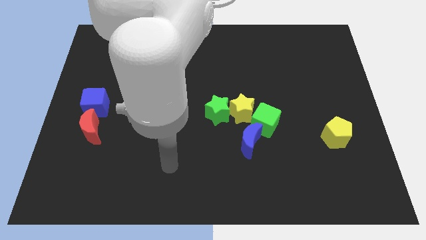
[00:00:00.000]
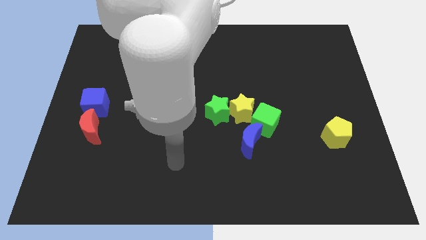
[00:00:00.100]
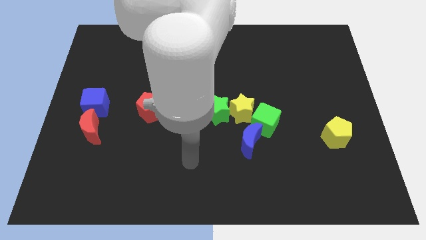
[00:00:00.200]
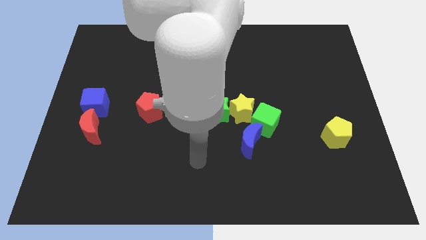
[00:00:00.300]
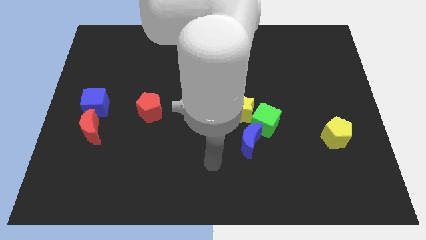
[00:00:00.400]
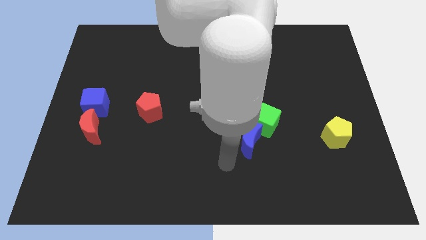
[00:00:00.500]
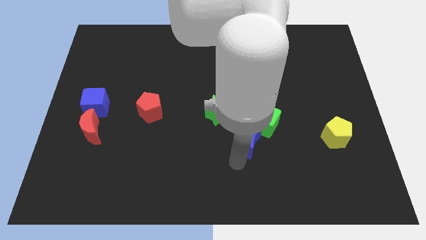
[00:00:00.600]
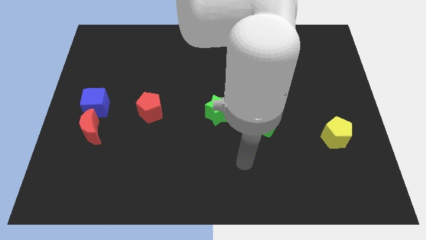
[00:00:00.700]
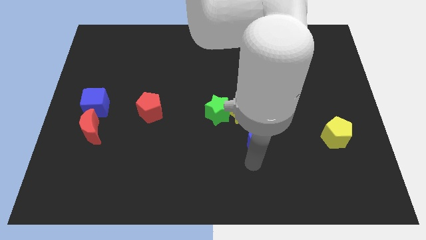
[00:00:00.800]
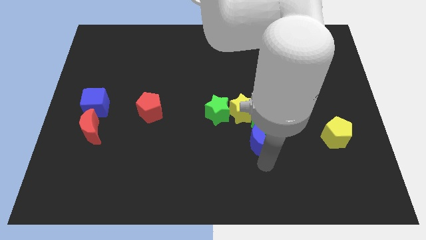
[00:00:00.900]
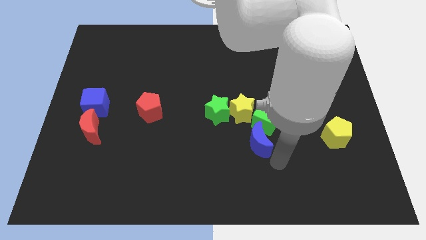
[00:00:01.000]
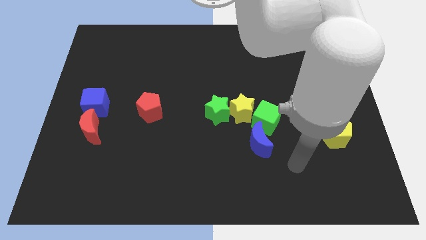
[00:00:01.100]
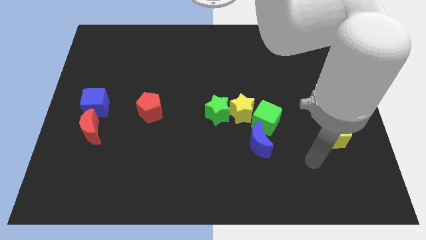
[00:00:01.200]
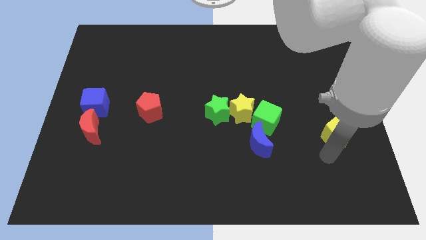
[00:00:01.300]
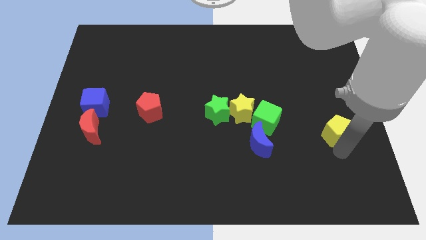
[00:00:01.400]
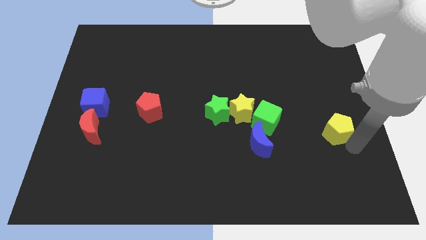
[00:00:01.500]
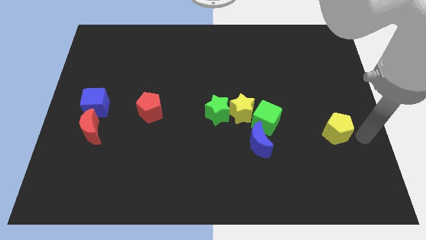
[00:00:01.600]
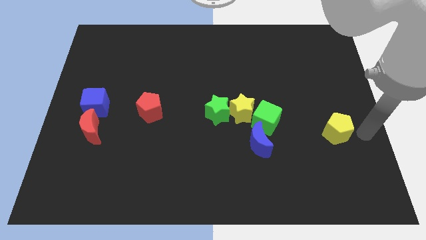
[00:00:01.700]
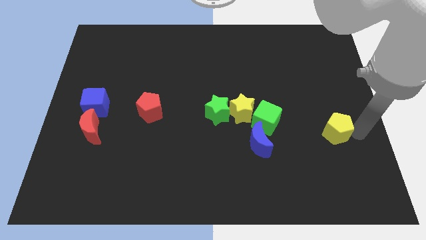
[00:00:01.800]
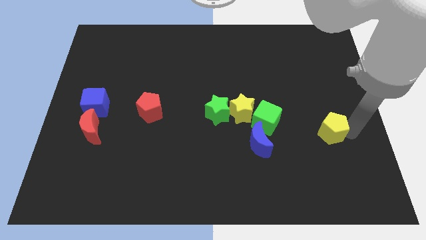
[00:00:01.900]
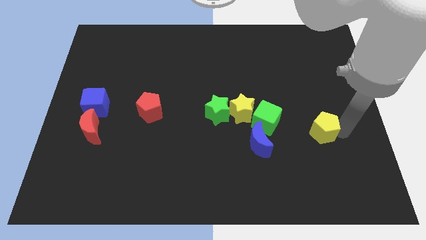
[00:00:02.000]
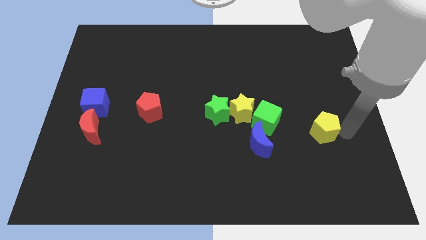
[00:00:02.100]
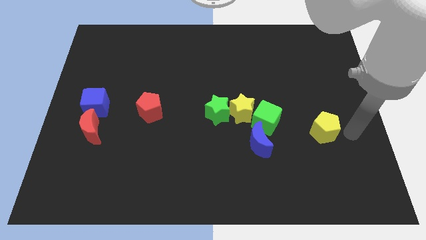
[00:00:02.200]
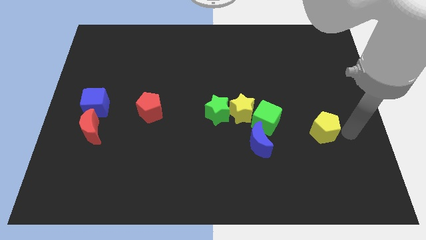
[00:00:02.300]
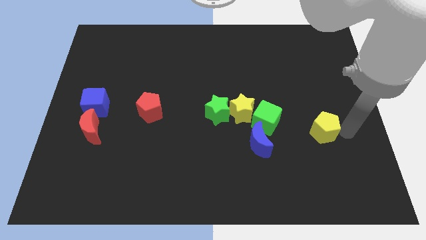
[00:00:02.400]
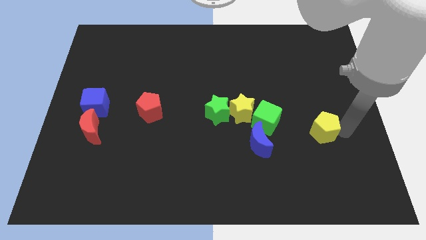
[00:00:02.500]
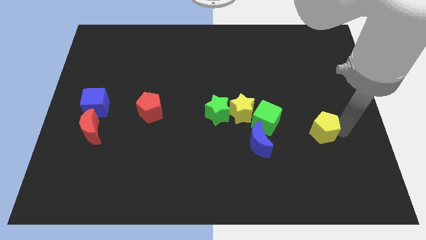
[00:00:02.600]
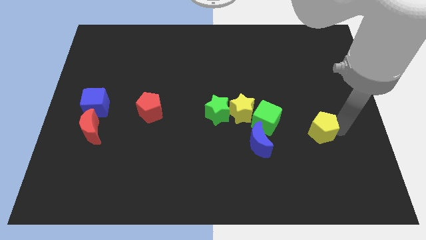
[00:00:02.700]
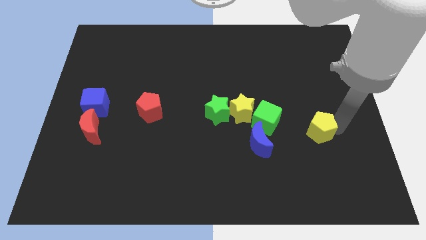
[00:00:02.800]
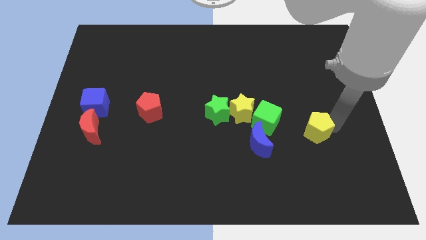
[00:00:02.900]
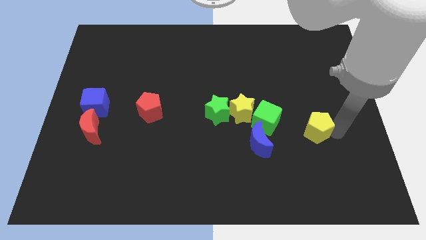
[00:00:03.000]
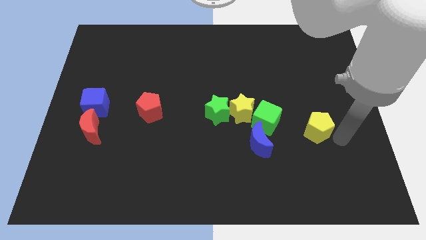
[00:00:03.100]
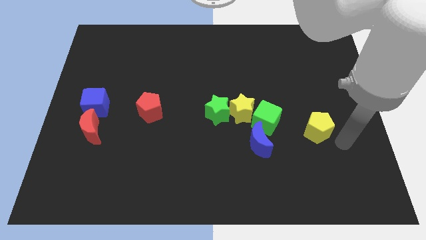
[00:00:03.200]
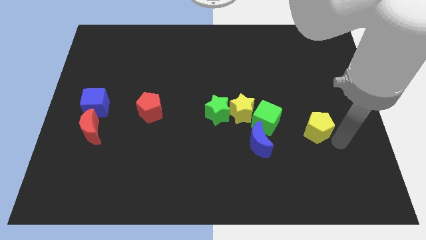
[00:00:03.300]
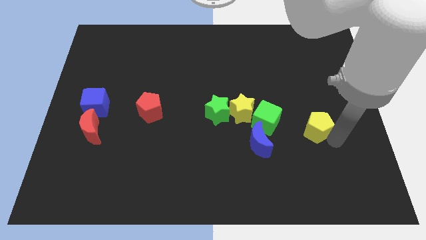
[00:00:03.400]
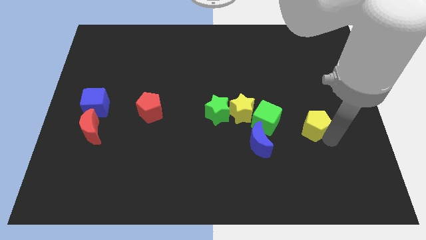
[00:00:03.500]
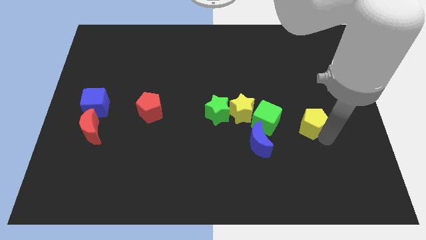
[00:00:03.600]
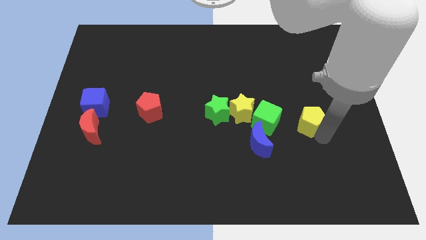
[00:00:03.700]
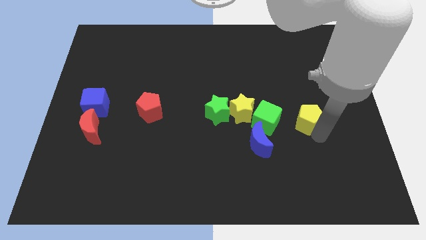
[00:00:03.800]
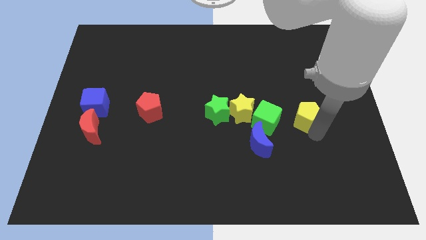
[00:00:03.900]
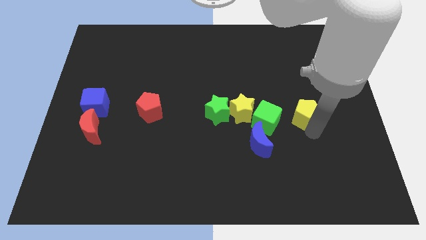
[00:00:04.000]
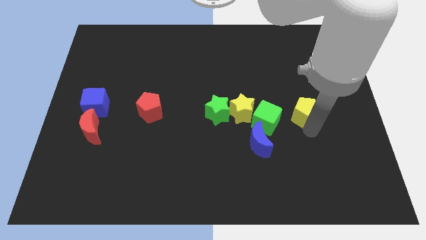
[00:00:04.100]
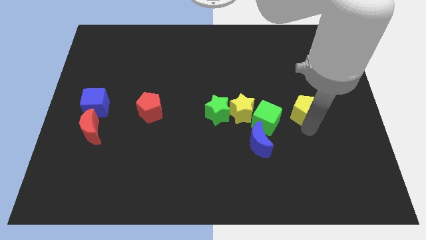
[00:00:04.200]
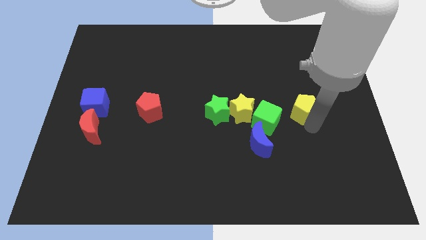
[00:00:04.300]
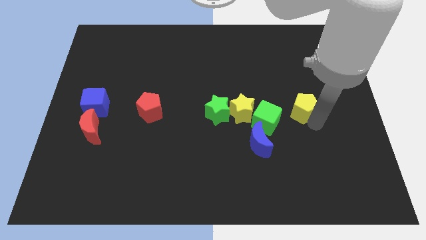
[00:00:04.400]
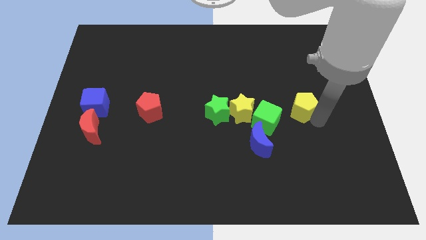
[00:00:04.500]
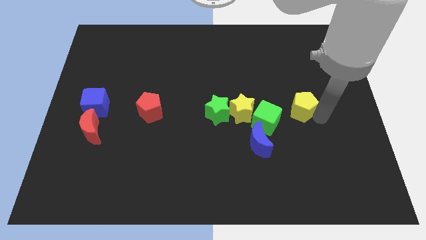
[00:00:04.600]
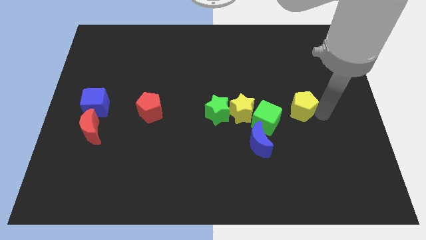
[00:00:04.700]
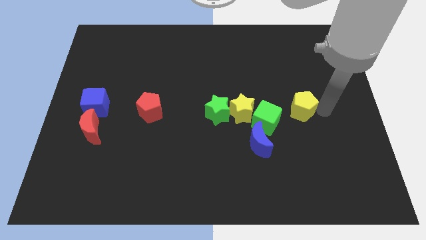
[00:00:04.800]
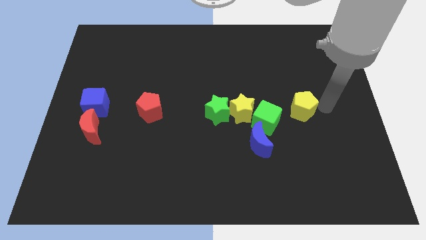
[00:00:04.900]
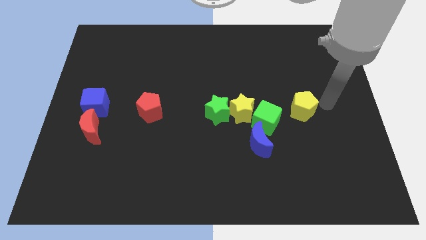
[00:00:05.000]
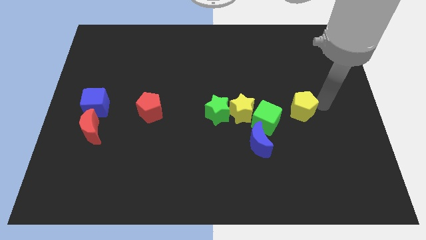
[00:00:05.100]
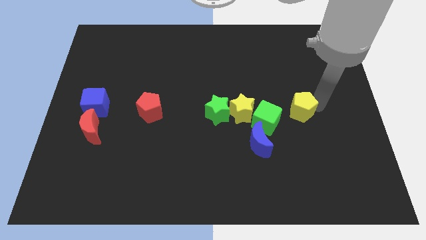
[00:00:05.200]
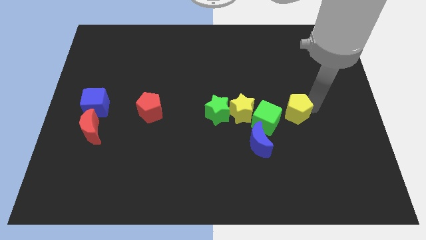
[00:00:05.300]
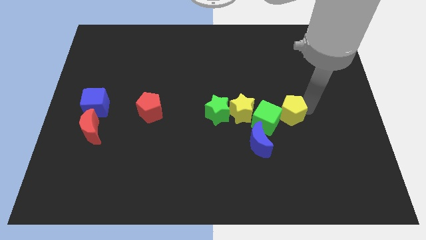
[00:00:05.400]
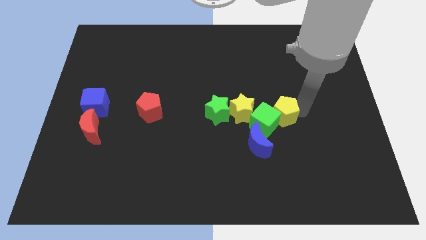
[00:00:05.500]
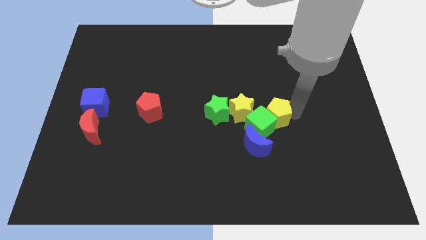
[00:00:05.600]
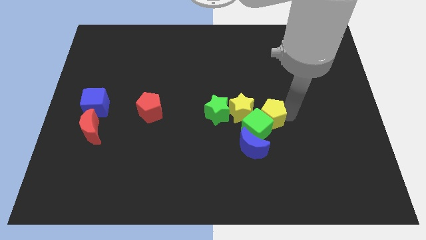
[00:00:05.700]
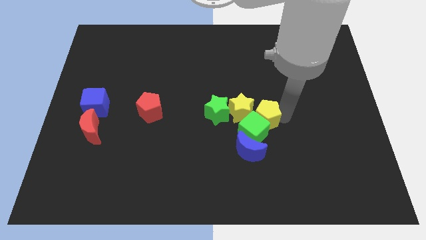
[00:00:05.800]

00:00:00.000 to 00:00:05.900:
move the yellow pentagon to the yellow star

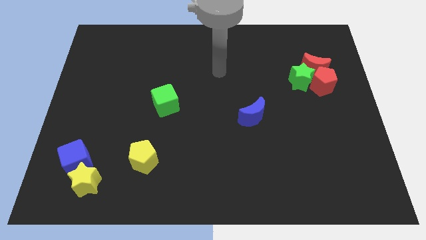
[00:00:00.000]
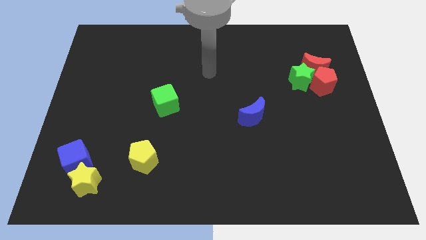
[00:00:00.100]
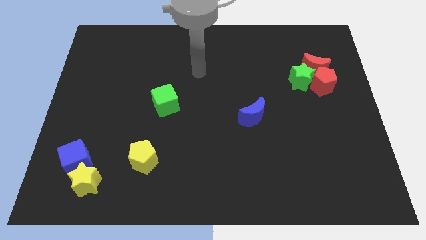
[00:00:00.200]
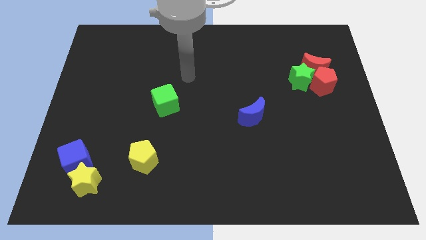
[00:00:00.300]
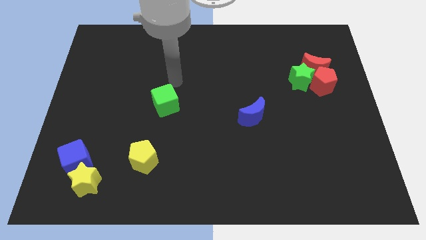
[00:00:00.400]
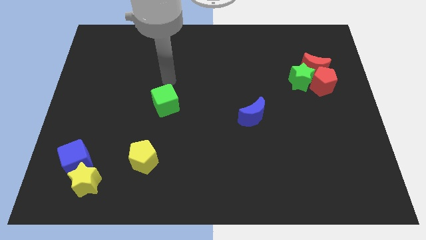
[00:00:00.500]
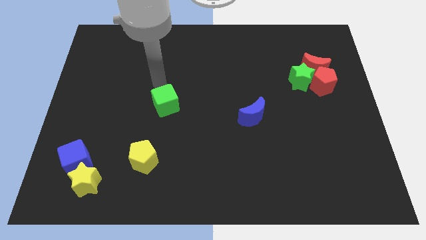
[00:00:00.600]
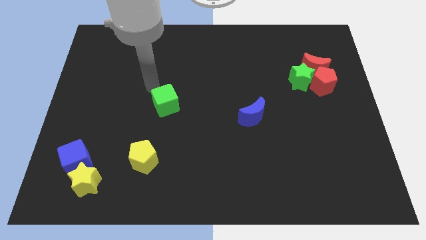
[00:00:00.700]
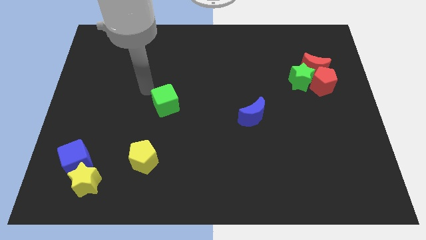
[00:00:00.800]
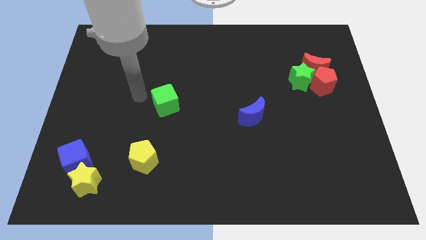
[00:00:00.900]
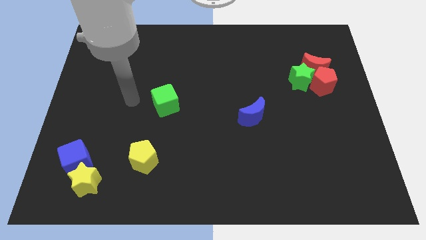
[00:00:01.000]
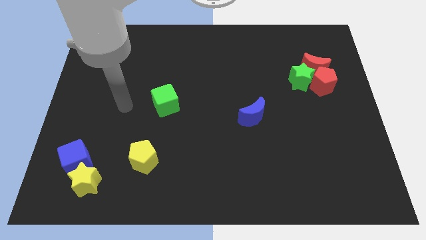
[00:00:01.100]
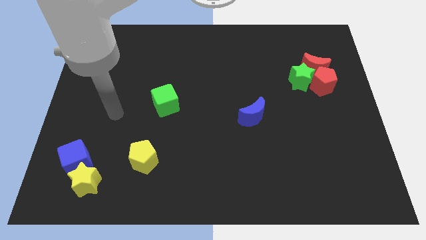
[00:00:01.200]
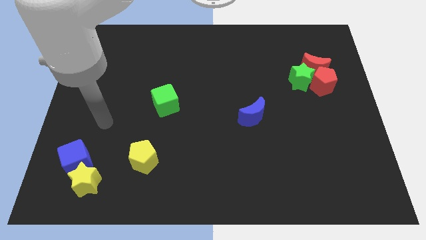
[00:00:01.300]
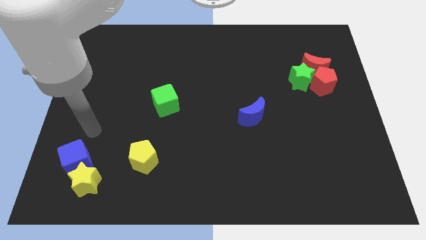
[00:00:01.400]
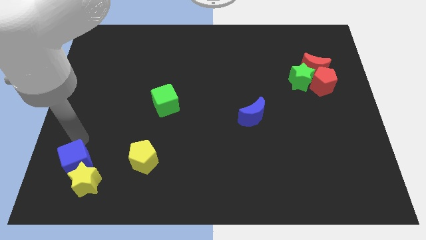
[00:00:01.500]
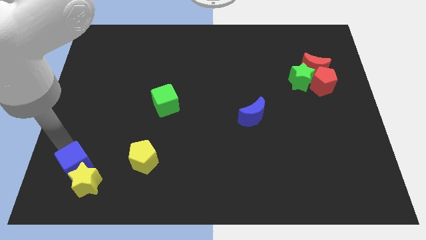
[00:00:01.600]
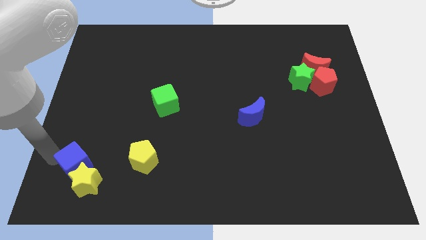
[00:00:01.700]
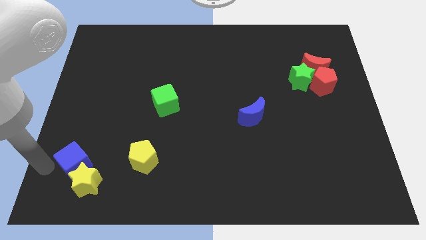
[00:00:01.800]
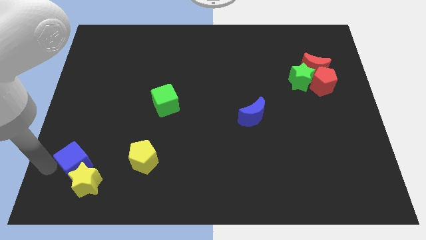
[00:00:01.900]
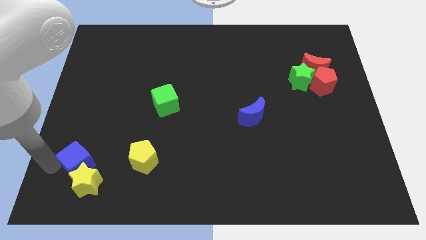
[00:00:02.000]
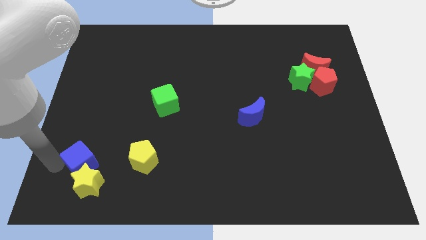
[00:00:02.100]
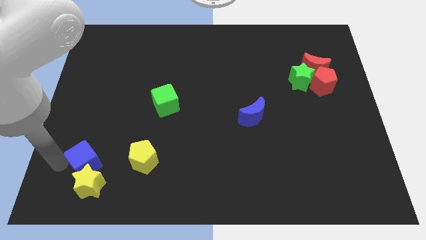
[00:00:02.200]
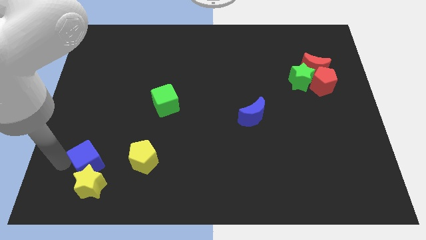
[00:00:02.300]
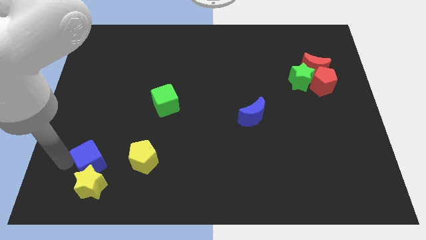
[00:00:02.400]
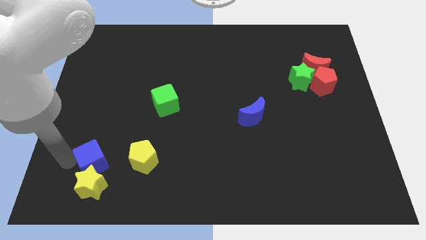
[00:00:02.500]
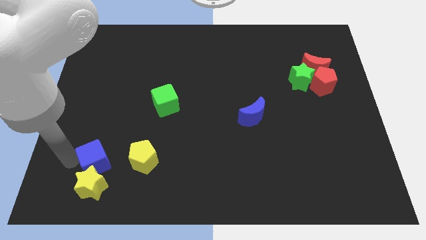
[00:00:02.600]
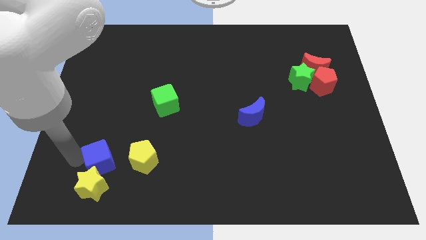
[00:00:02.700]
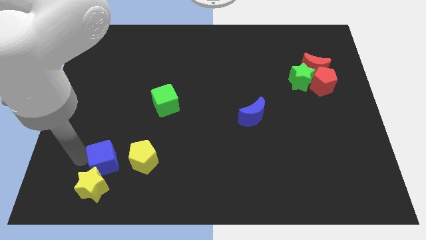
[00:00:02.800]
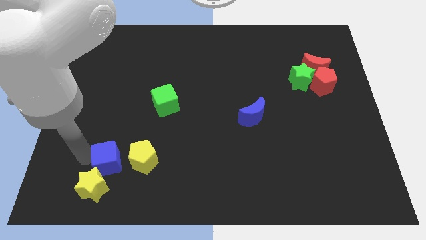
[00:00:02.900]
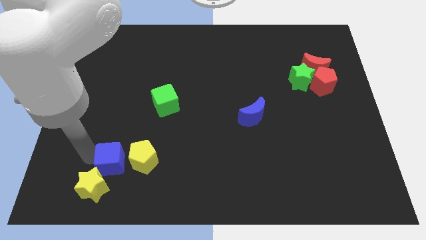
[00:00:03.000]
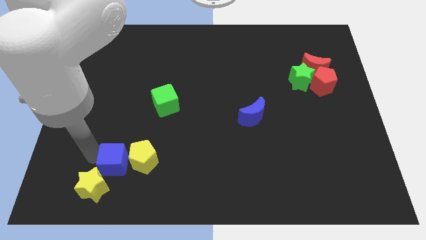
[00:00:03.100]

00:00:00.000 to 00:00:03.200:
move the blue cube to the yellow pentagon
